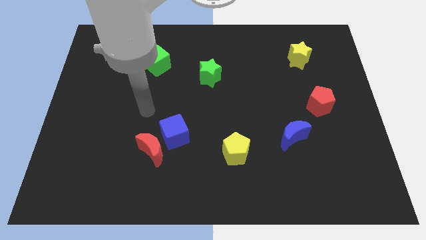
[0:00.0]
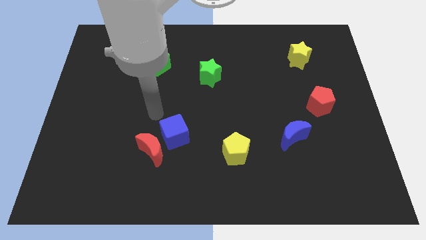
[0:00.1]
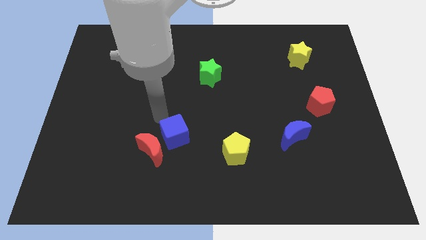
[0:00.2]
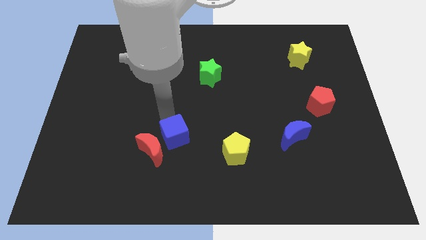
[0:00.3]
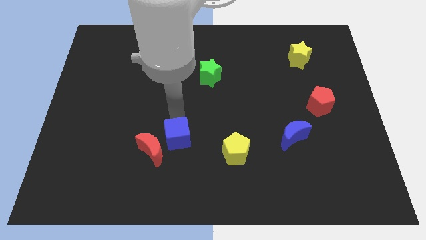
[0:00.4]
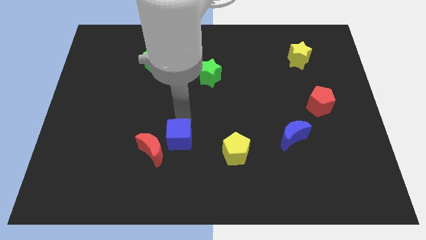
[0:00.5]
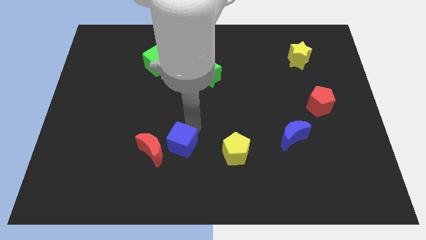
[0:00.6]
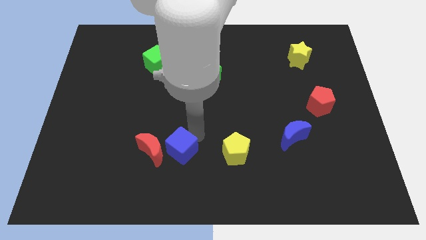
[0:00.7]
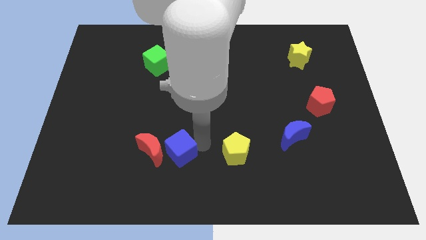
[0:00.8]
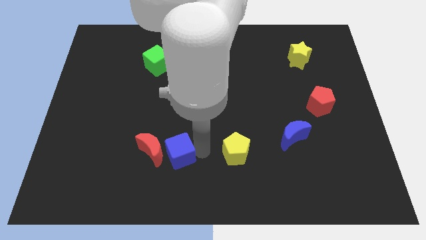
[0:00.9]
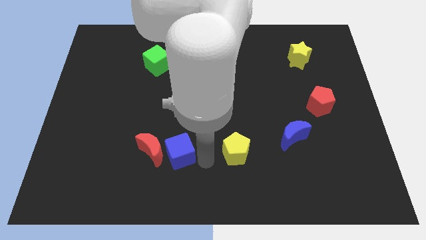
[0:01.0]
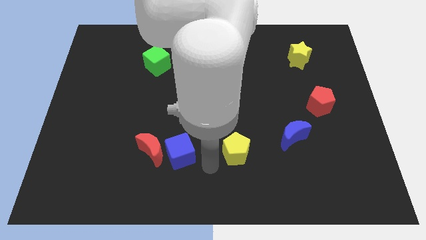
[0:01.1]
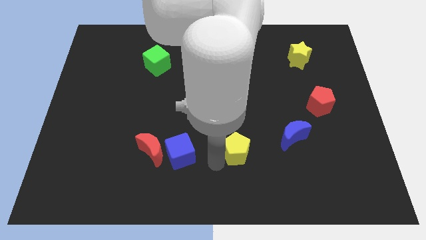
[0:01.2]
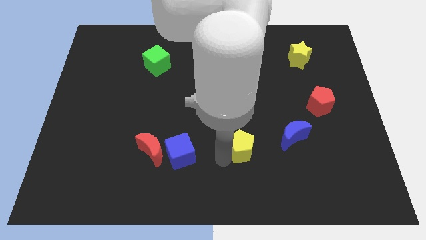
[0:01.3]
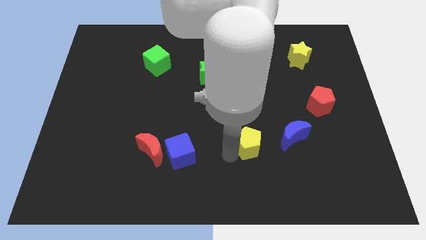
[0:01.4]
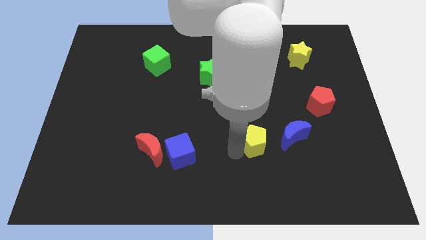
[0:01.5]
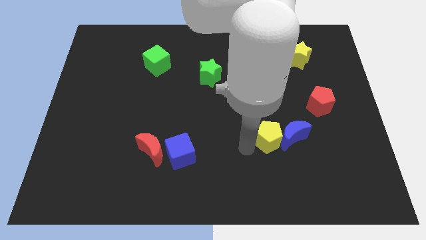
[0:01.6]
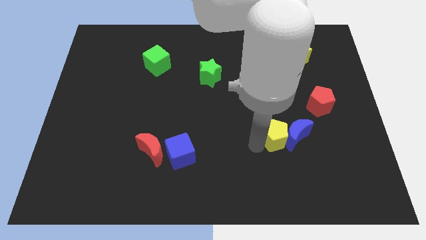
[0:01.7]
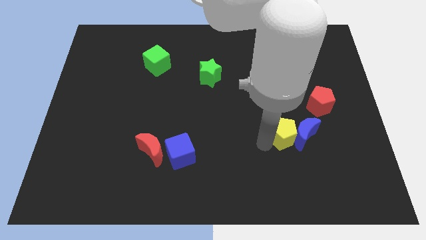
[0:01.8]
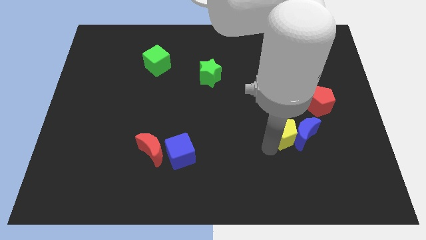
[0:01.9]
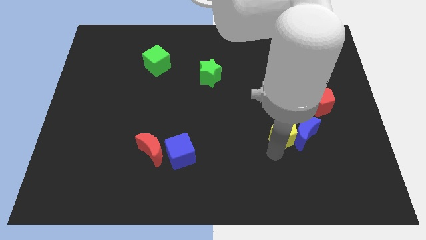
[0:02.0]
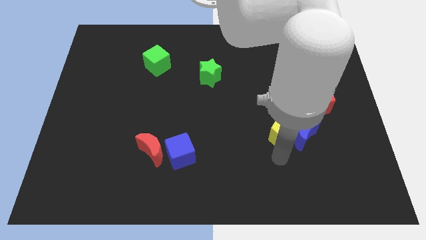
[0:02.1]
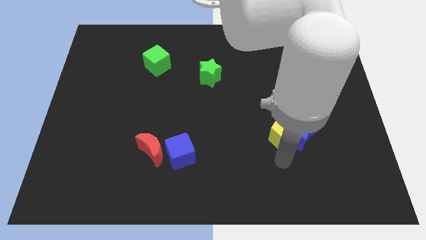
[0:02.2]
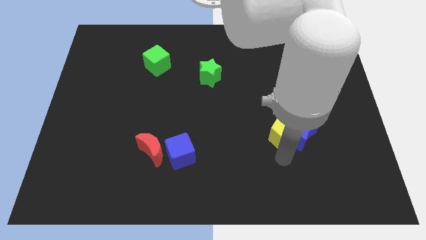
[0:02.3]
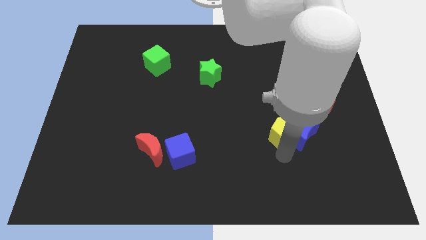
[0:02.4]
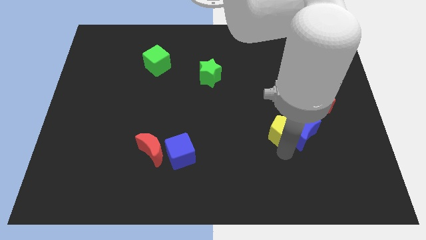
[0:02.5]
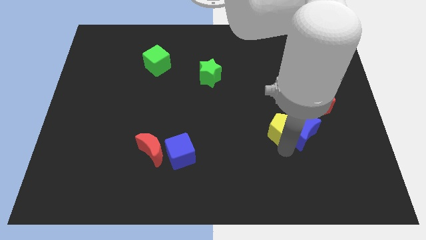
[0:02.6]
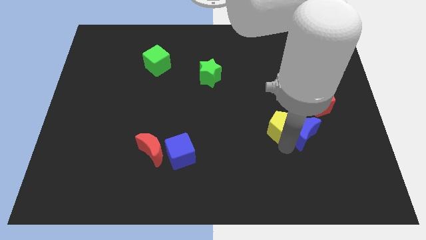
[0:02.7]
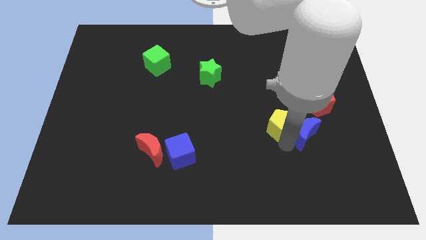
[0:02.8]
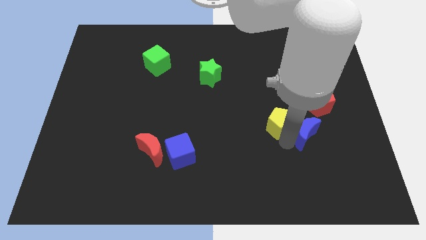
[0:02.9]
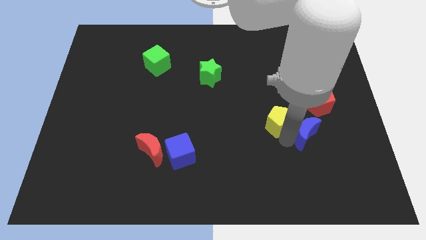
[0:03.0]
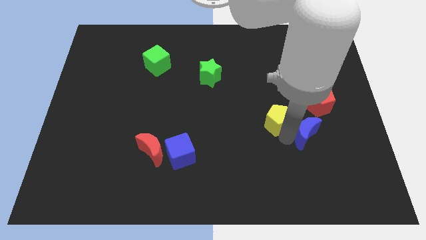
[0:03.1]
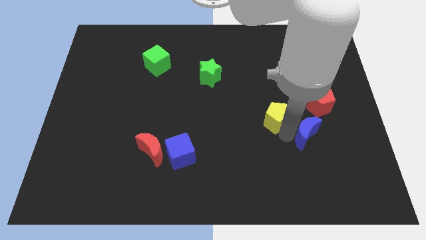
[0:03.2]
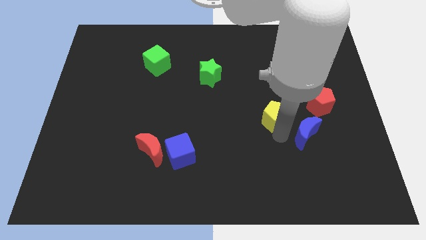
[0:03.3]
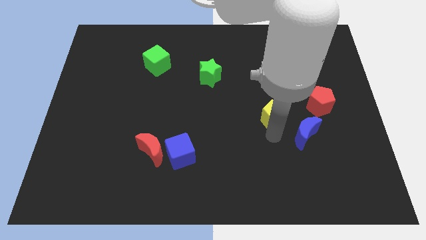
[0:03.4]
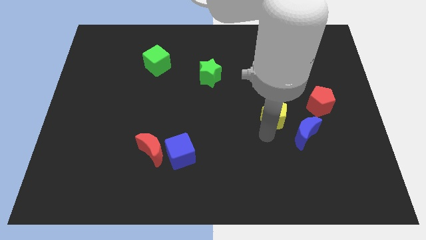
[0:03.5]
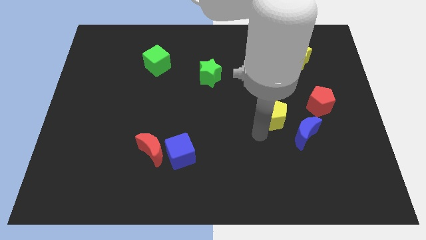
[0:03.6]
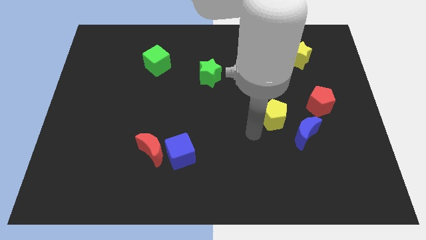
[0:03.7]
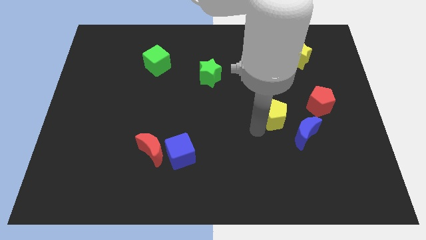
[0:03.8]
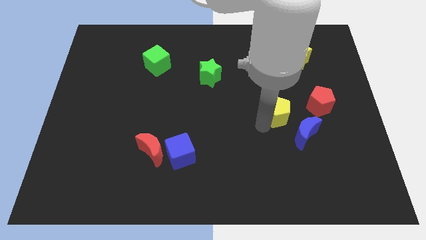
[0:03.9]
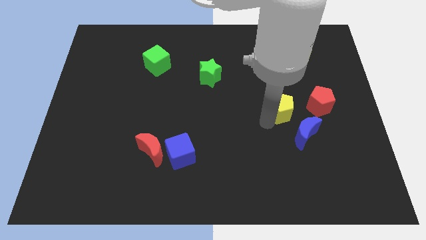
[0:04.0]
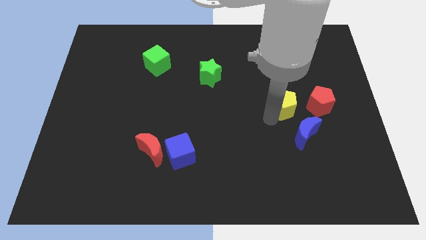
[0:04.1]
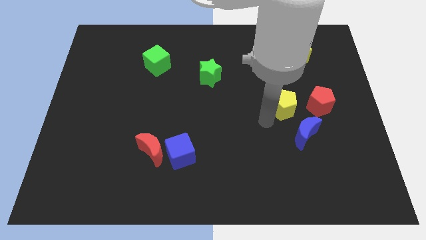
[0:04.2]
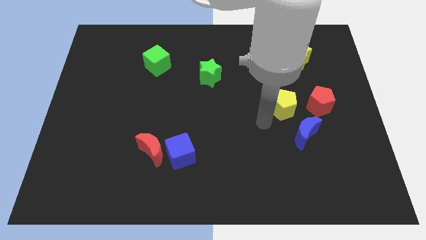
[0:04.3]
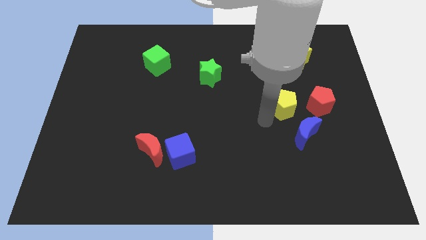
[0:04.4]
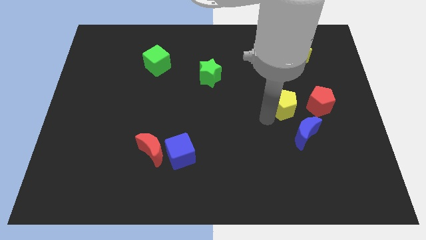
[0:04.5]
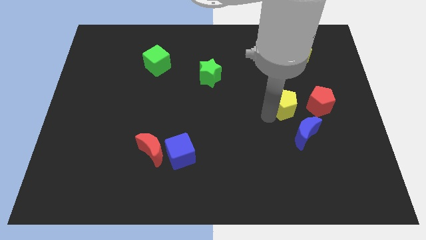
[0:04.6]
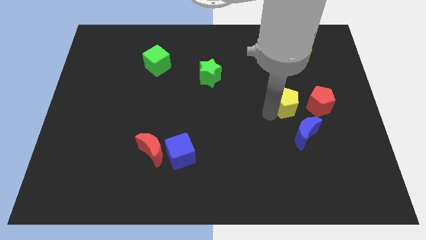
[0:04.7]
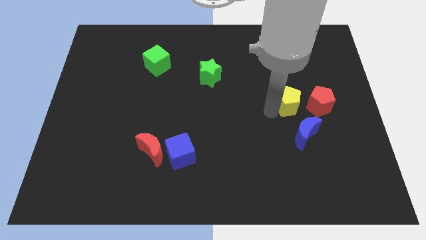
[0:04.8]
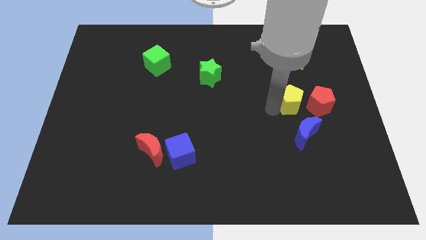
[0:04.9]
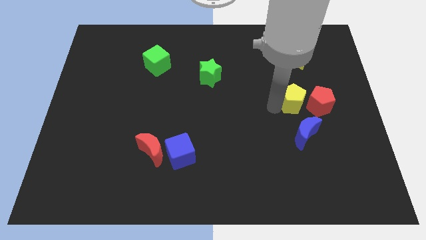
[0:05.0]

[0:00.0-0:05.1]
move the yellow pentagon diagonally up and right

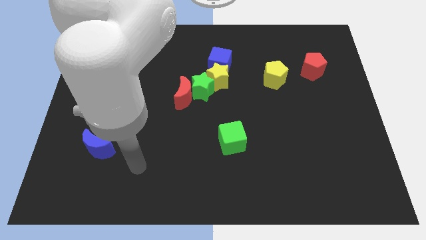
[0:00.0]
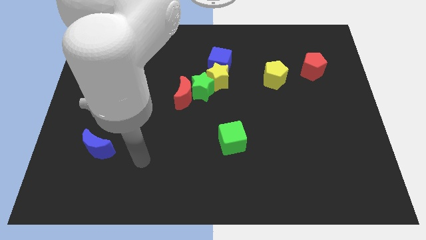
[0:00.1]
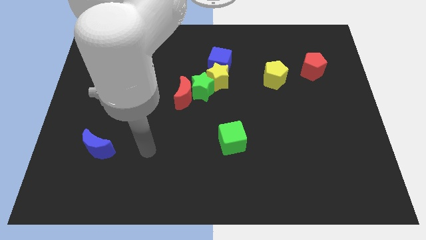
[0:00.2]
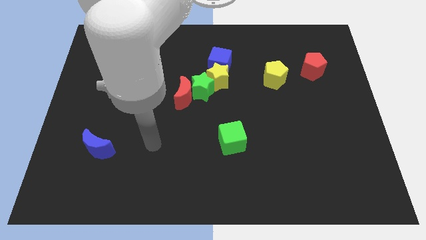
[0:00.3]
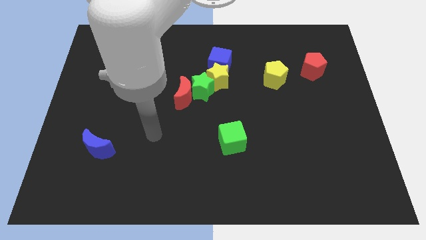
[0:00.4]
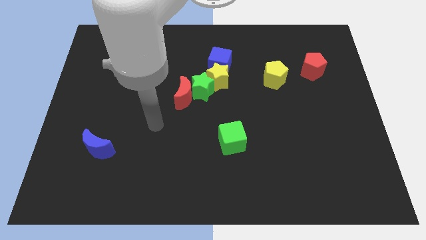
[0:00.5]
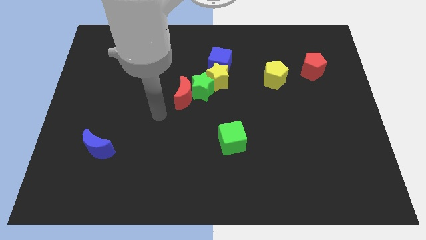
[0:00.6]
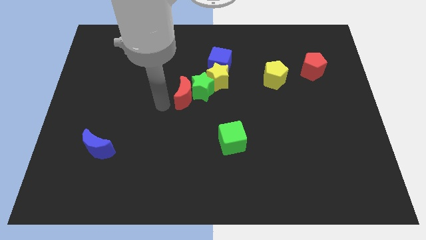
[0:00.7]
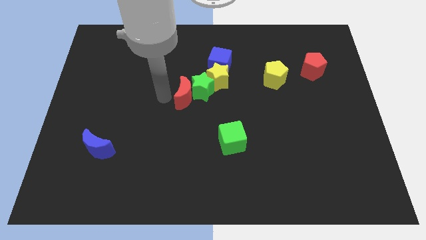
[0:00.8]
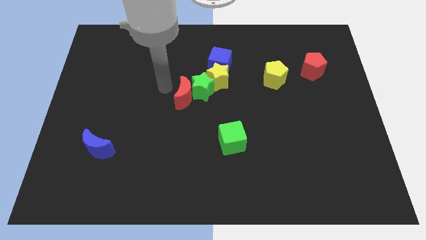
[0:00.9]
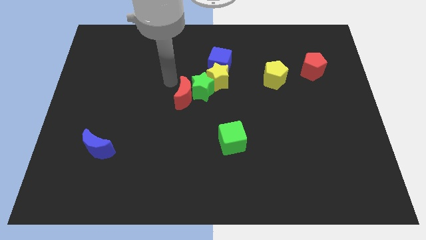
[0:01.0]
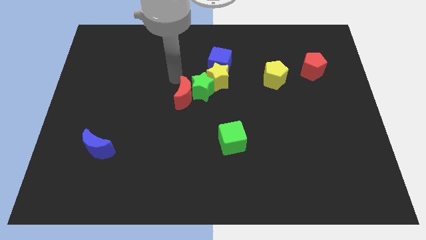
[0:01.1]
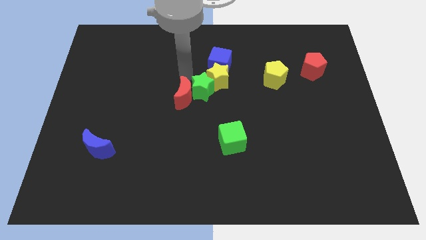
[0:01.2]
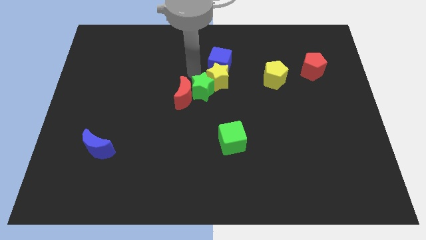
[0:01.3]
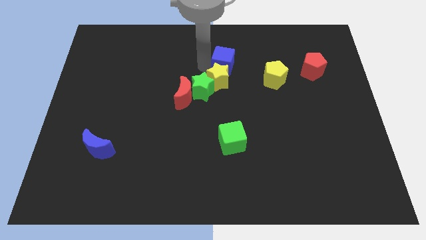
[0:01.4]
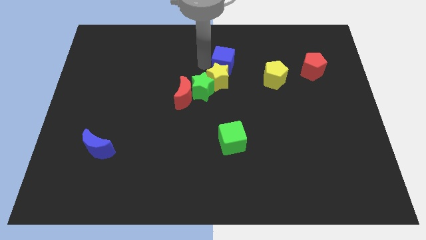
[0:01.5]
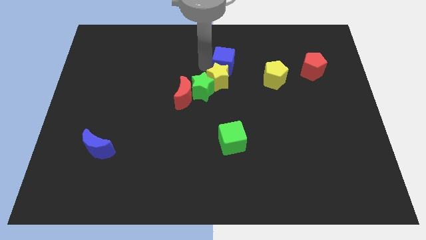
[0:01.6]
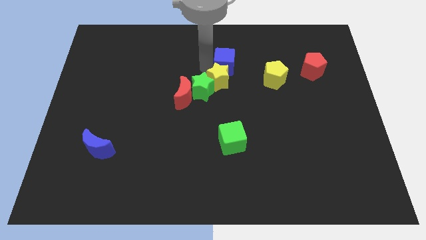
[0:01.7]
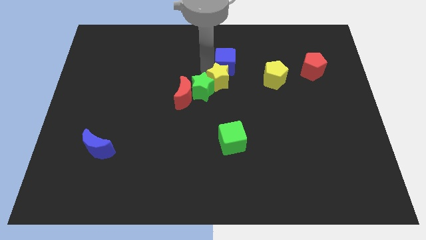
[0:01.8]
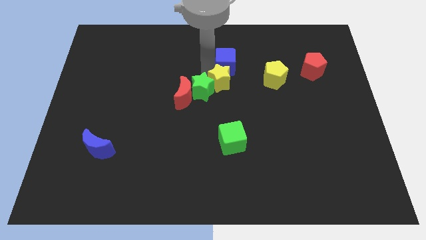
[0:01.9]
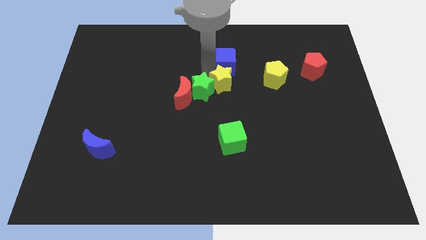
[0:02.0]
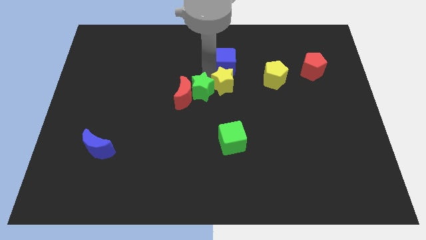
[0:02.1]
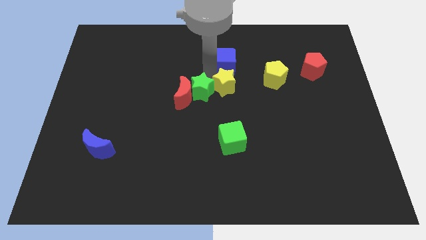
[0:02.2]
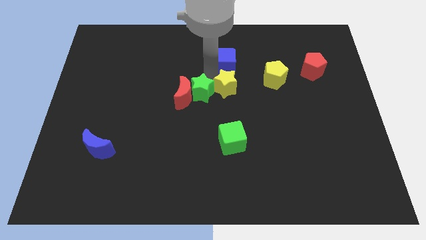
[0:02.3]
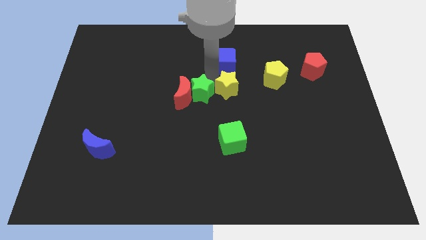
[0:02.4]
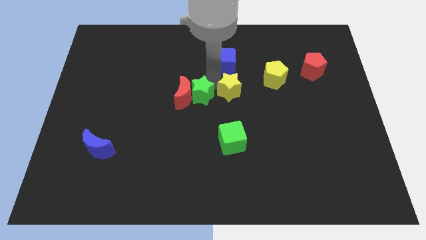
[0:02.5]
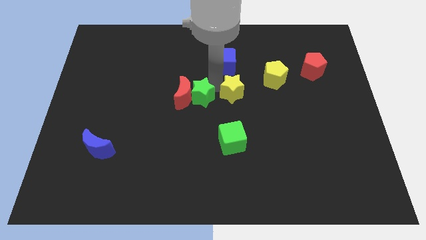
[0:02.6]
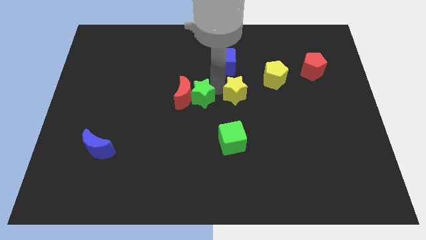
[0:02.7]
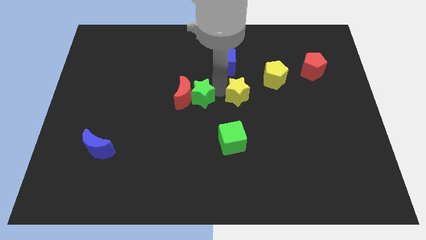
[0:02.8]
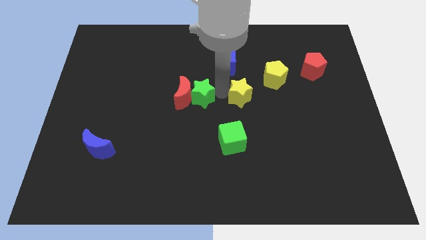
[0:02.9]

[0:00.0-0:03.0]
push the yellow star downwards and to the right diagonally a bit
